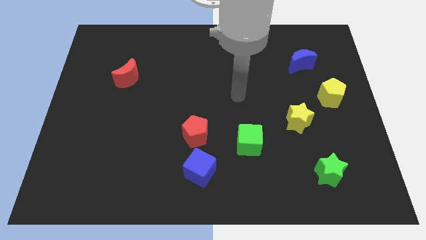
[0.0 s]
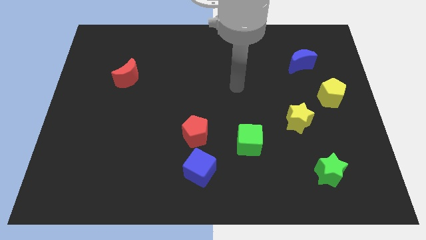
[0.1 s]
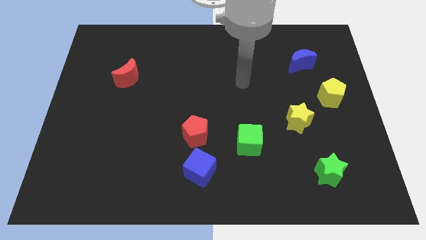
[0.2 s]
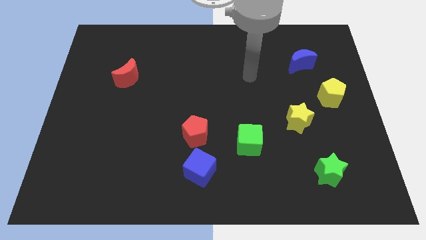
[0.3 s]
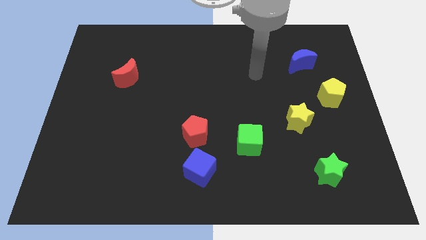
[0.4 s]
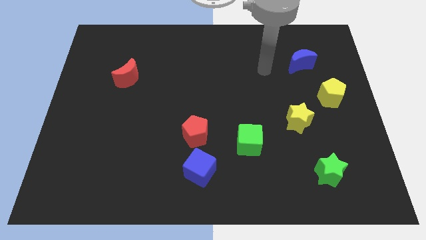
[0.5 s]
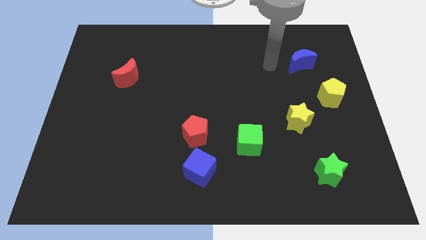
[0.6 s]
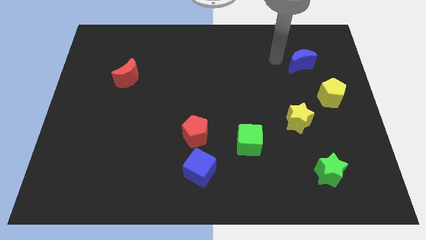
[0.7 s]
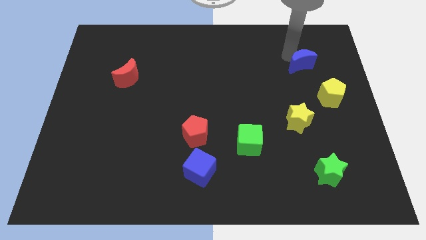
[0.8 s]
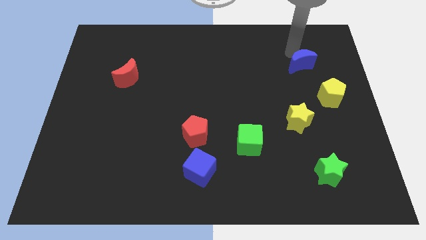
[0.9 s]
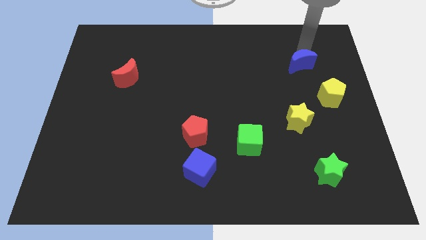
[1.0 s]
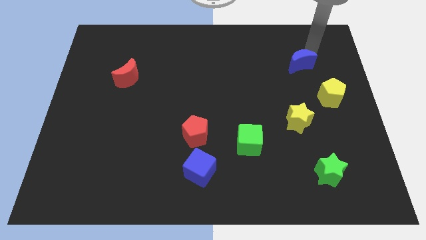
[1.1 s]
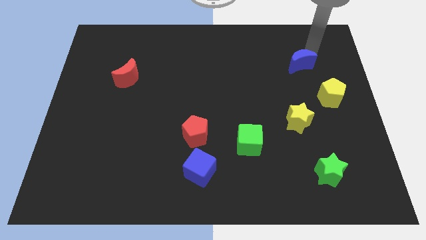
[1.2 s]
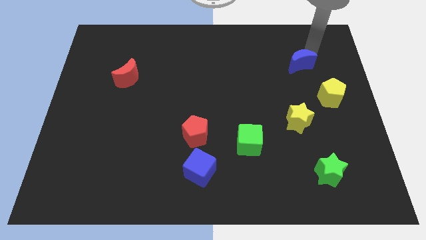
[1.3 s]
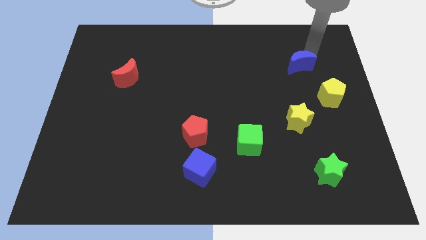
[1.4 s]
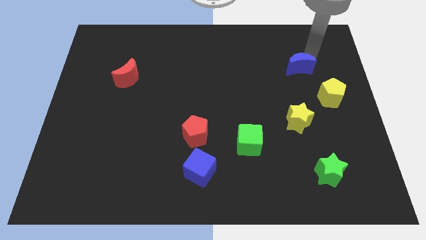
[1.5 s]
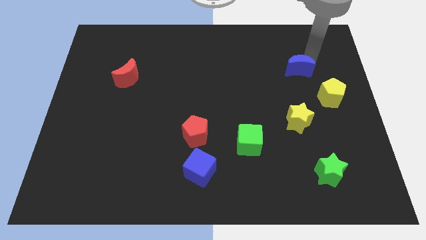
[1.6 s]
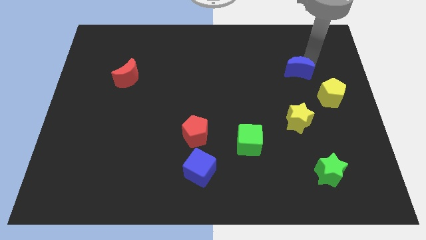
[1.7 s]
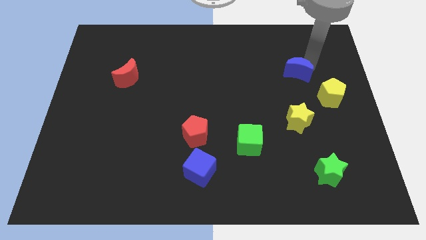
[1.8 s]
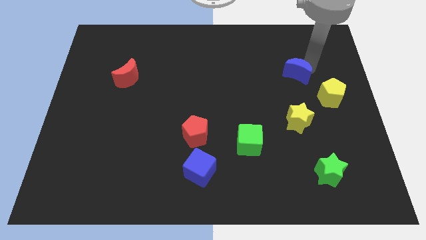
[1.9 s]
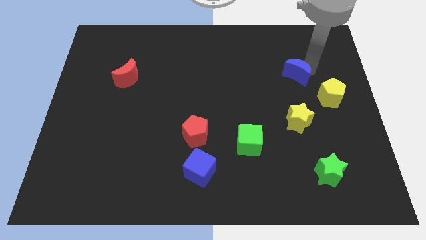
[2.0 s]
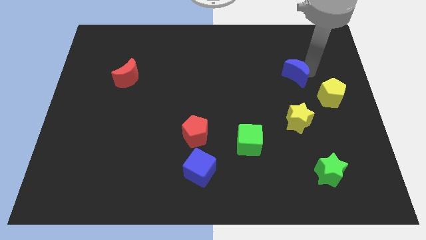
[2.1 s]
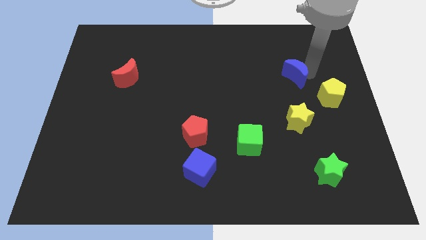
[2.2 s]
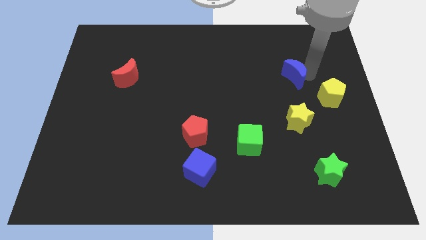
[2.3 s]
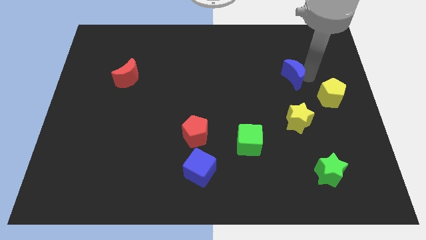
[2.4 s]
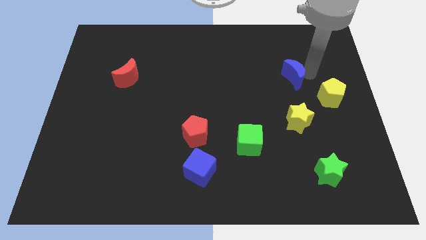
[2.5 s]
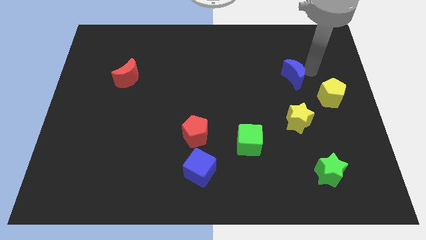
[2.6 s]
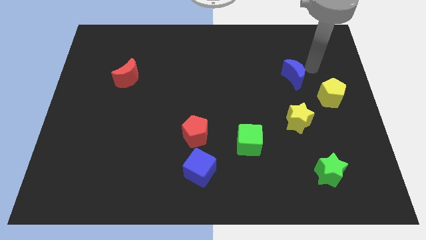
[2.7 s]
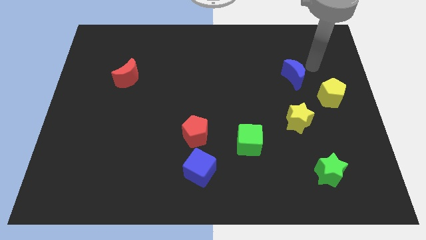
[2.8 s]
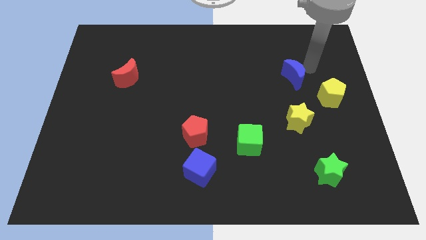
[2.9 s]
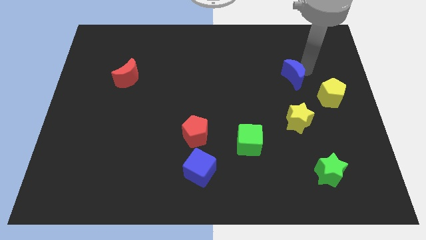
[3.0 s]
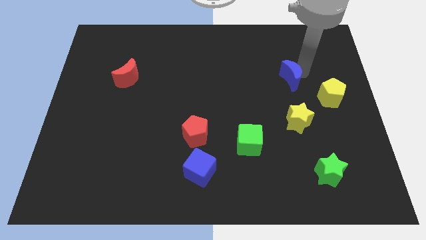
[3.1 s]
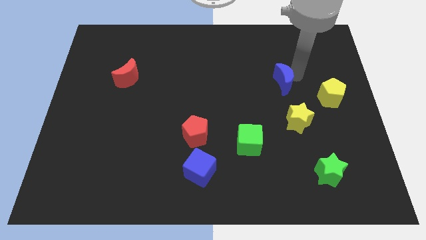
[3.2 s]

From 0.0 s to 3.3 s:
move the blue moon down and then left a little bit

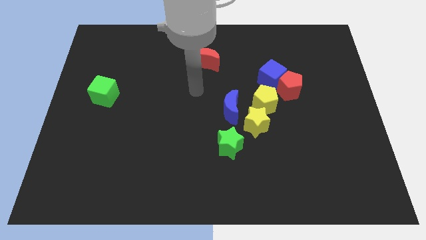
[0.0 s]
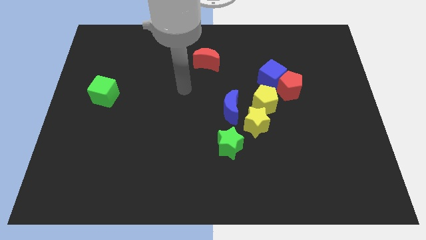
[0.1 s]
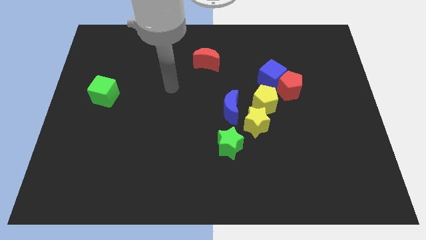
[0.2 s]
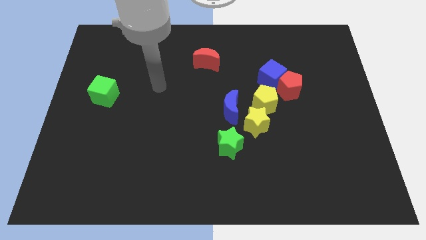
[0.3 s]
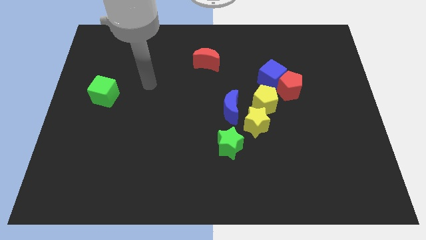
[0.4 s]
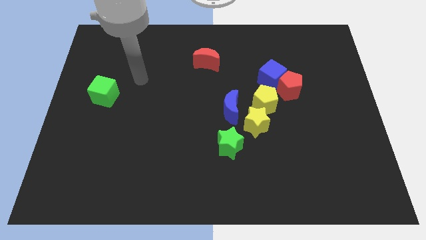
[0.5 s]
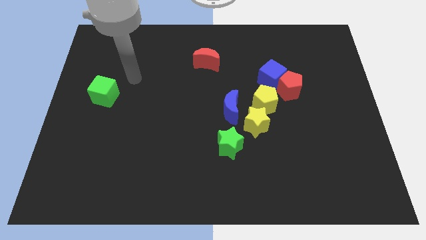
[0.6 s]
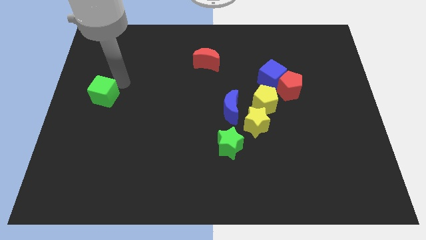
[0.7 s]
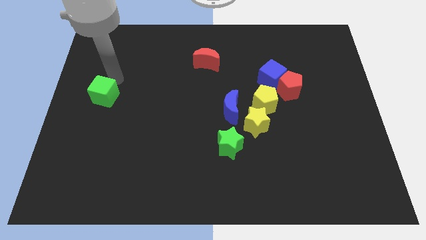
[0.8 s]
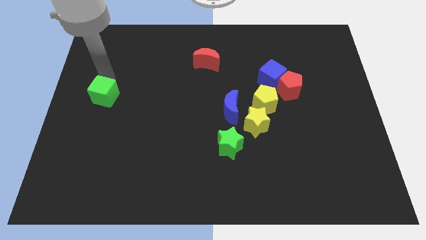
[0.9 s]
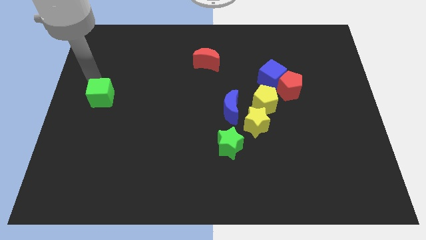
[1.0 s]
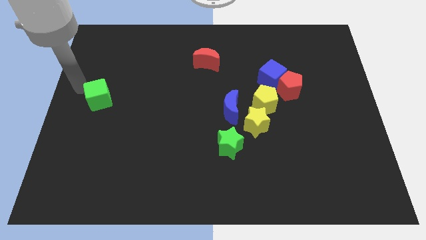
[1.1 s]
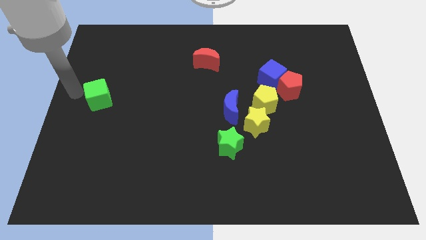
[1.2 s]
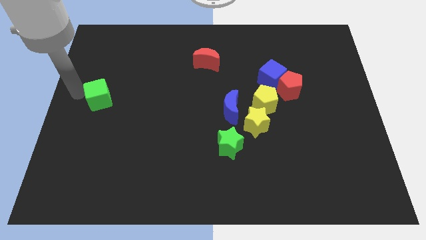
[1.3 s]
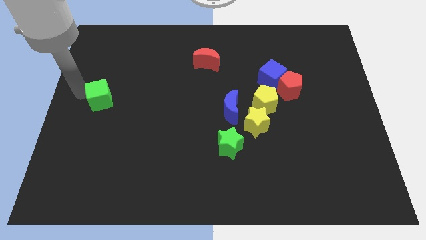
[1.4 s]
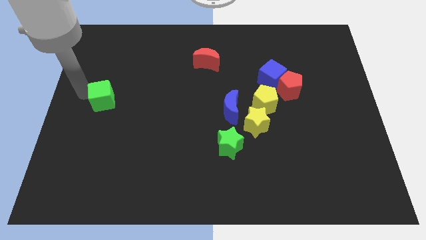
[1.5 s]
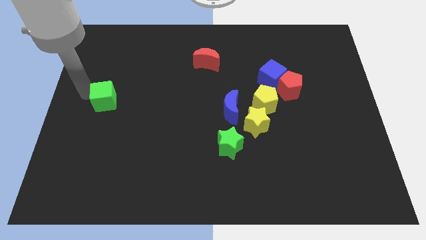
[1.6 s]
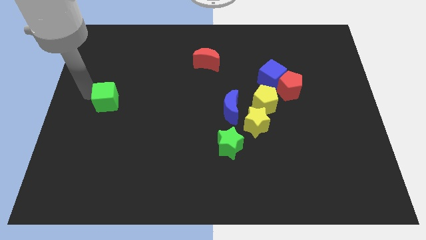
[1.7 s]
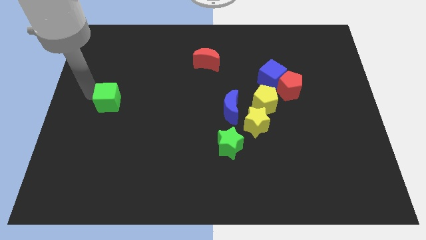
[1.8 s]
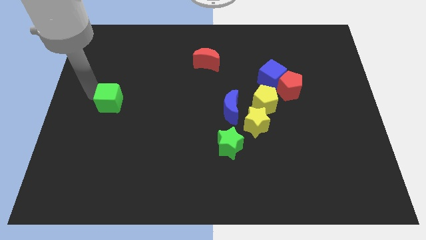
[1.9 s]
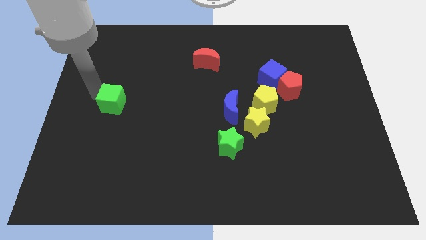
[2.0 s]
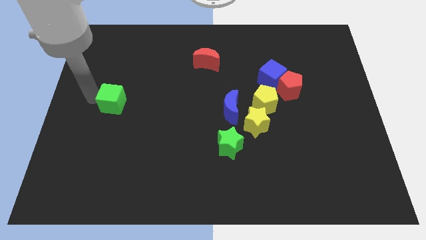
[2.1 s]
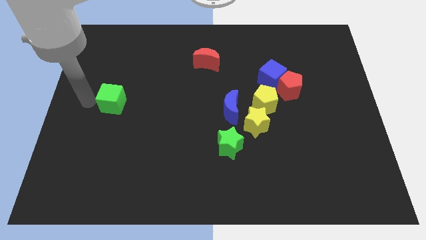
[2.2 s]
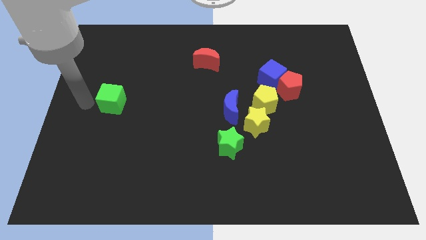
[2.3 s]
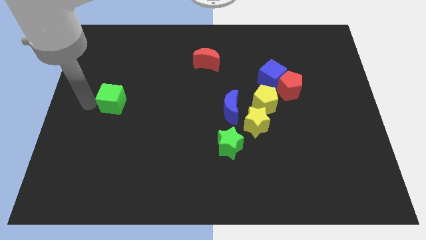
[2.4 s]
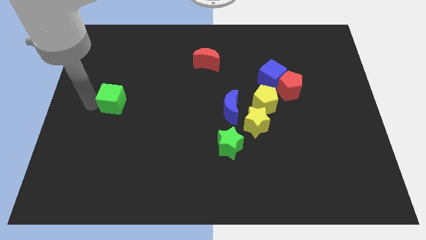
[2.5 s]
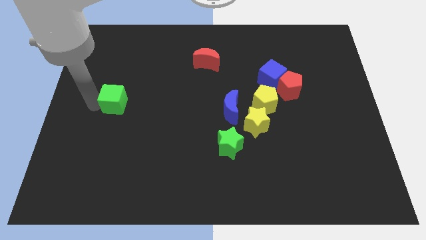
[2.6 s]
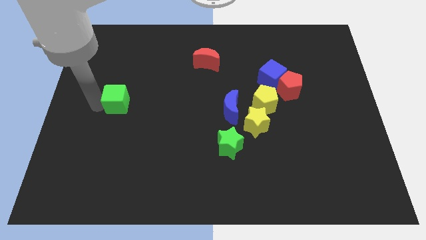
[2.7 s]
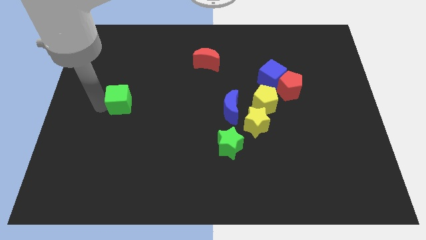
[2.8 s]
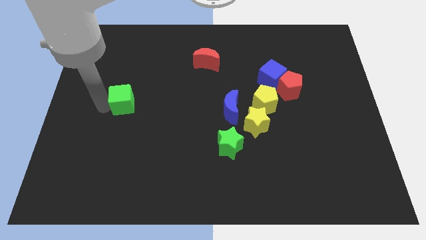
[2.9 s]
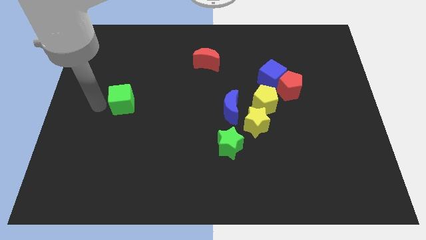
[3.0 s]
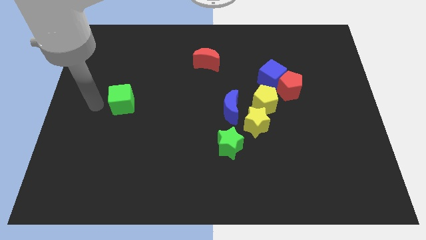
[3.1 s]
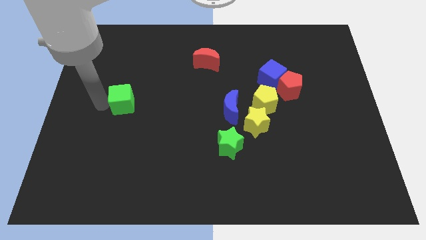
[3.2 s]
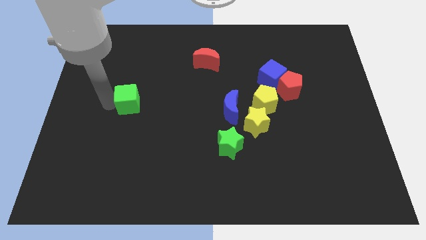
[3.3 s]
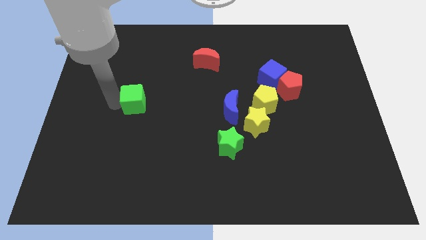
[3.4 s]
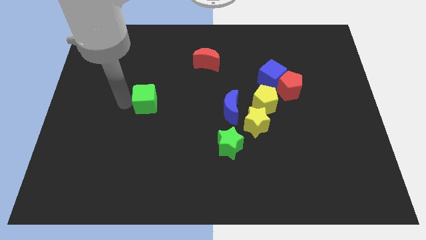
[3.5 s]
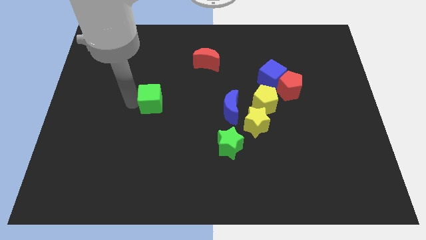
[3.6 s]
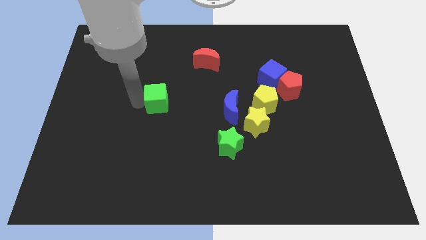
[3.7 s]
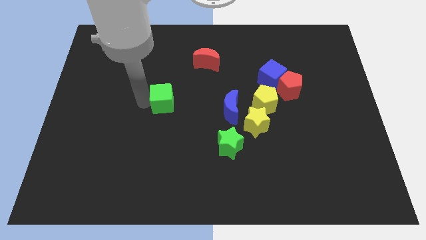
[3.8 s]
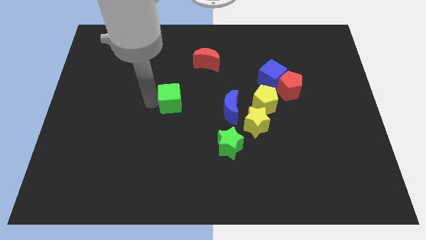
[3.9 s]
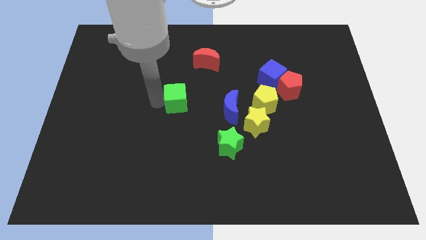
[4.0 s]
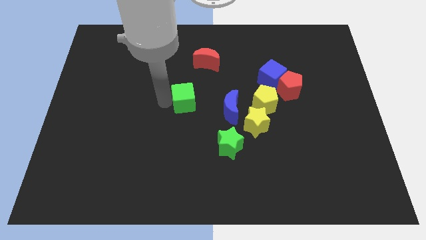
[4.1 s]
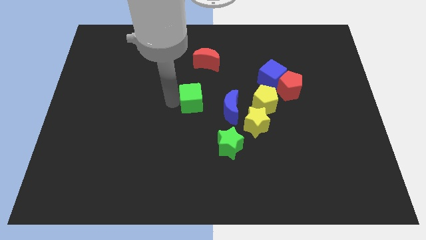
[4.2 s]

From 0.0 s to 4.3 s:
slide the green cube to the right

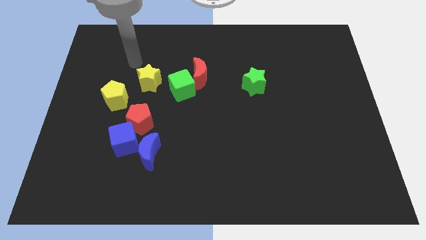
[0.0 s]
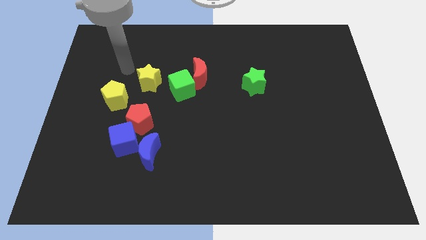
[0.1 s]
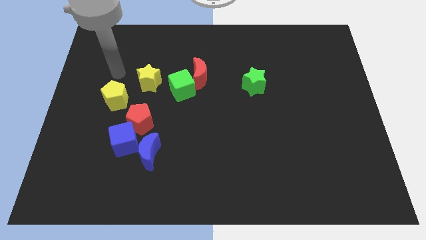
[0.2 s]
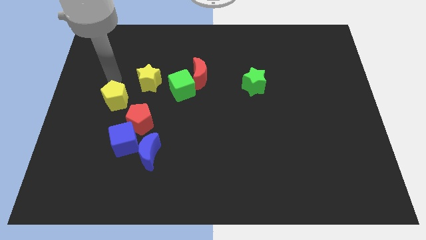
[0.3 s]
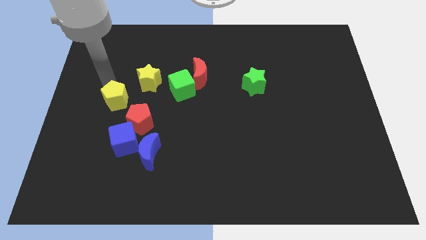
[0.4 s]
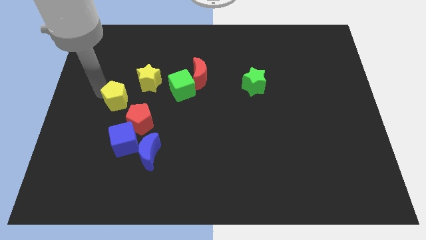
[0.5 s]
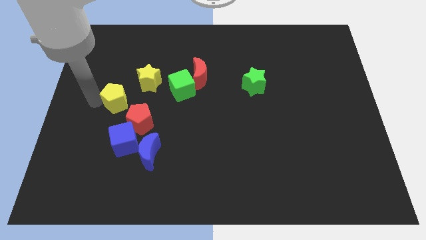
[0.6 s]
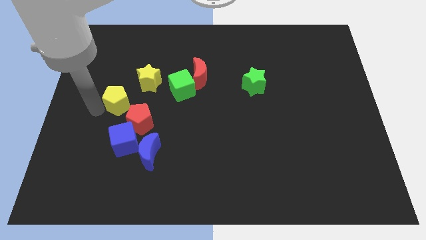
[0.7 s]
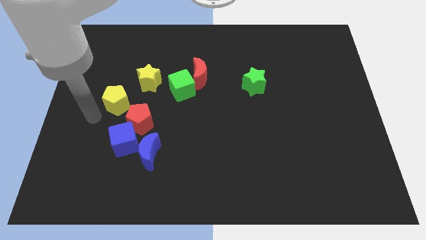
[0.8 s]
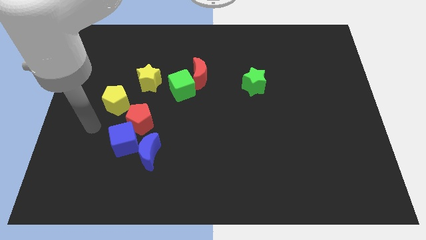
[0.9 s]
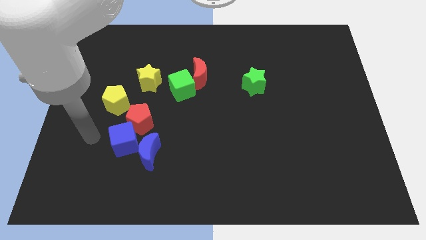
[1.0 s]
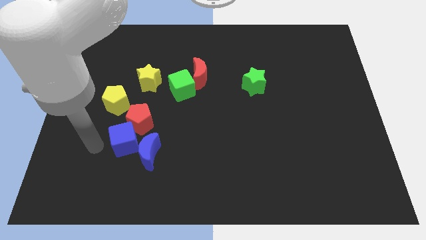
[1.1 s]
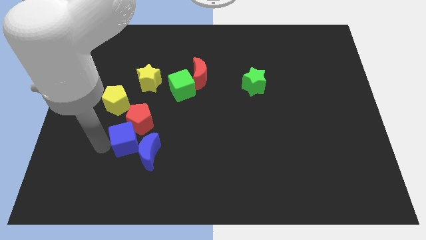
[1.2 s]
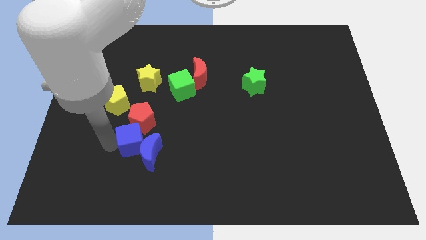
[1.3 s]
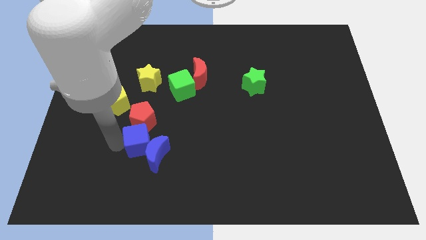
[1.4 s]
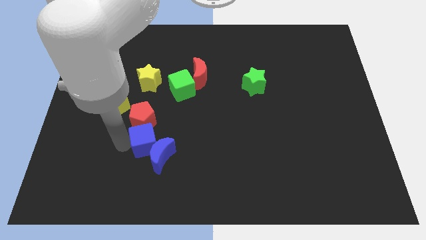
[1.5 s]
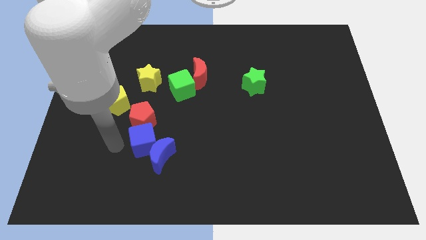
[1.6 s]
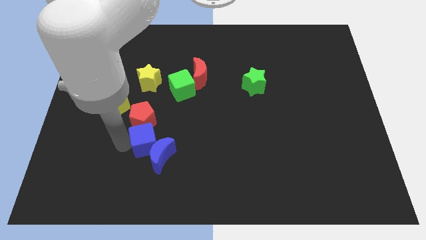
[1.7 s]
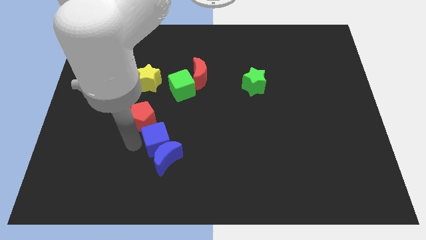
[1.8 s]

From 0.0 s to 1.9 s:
slightly slide the blue cube to the right
